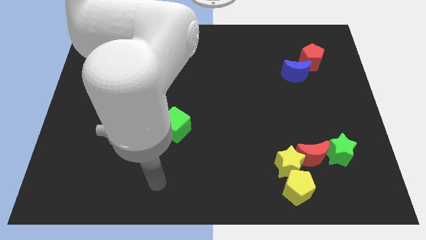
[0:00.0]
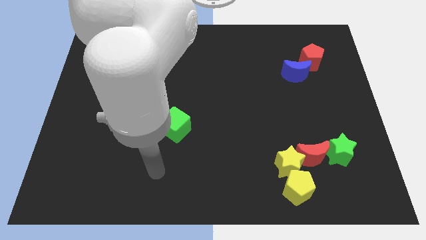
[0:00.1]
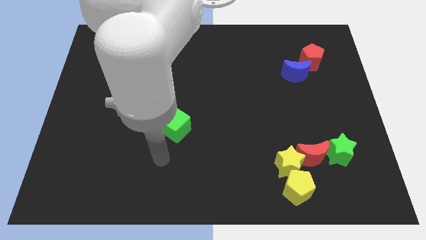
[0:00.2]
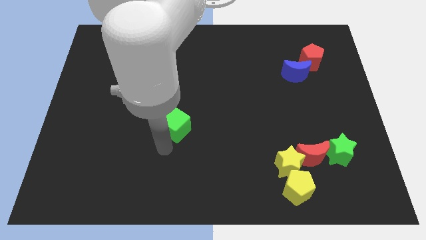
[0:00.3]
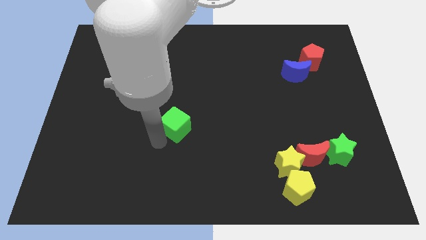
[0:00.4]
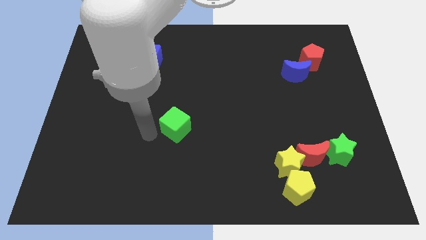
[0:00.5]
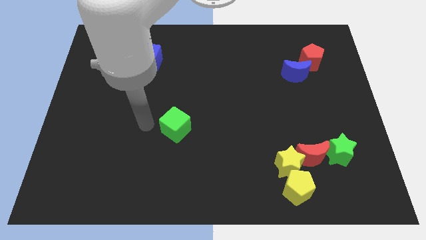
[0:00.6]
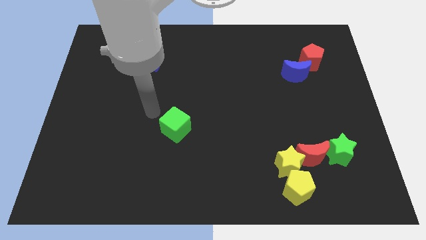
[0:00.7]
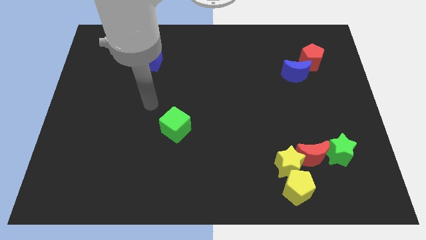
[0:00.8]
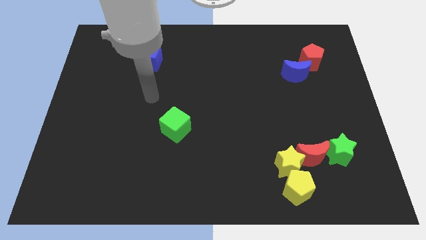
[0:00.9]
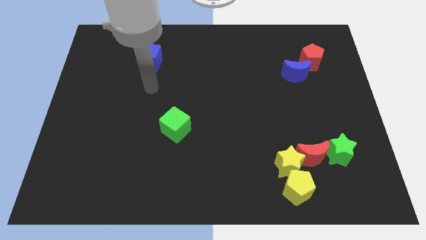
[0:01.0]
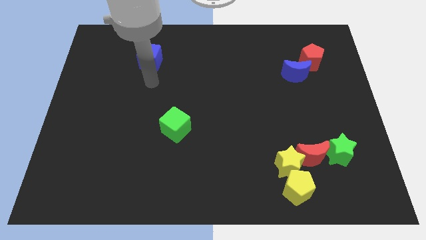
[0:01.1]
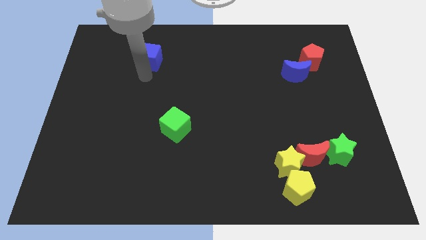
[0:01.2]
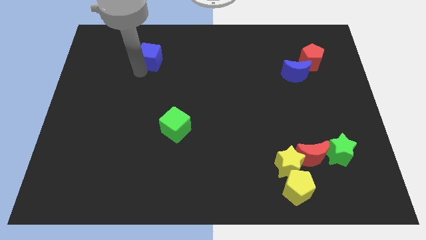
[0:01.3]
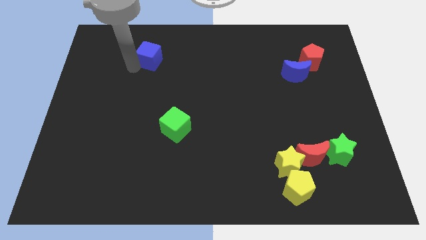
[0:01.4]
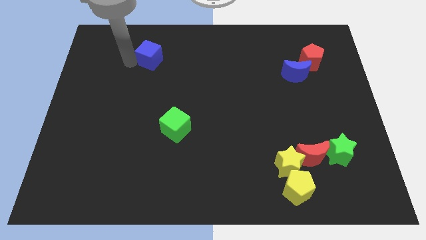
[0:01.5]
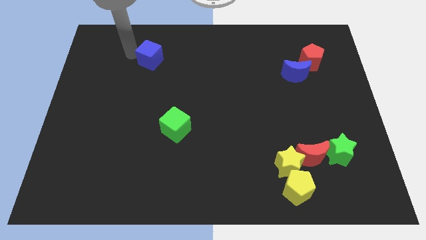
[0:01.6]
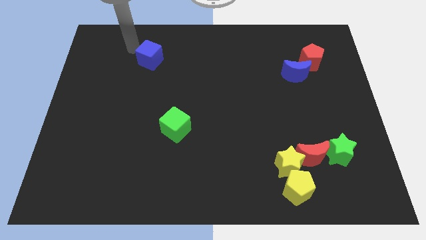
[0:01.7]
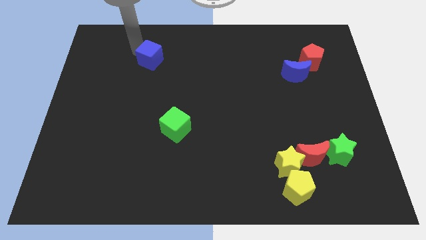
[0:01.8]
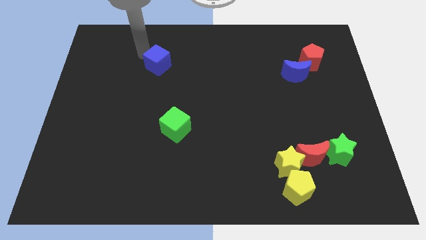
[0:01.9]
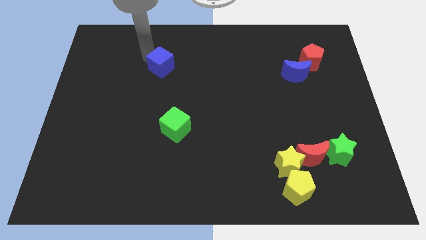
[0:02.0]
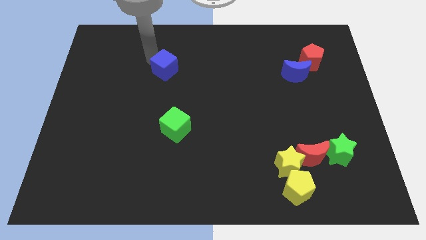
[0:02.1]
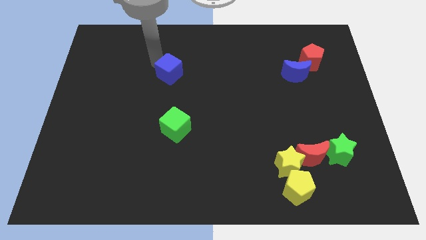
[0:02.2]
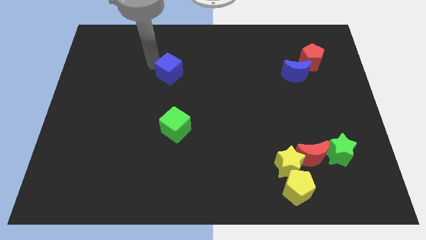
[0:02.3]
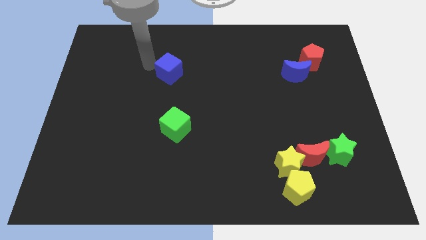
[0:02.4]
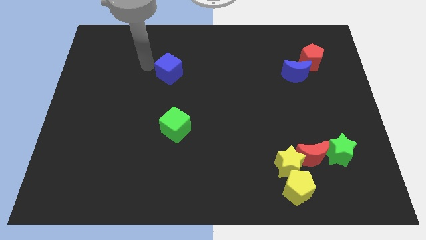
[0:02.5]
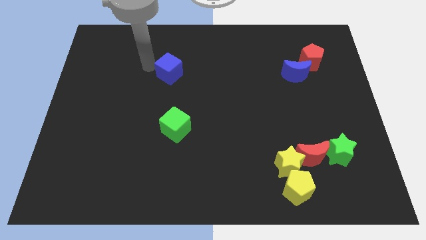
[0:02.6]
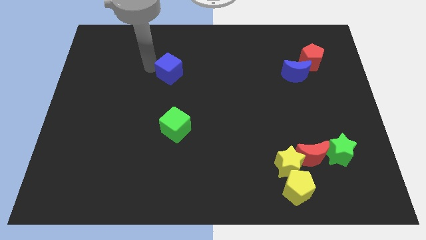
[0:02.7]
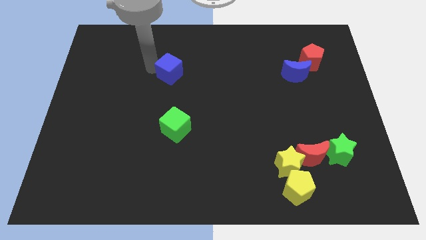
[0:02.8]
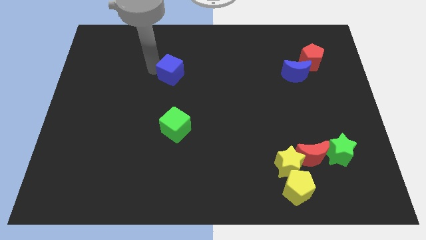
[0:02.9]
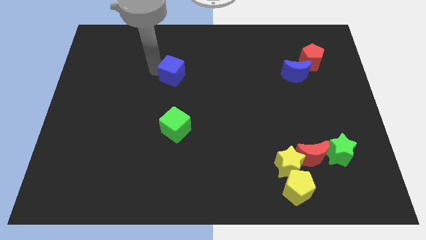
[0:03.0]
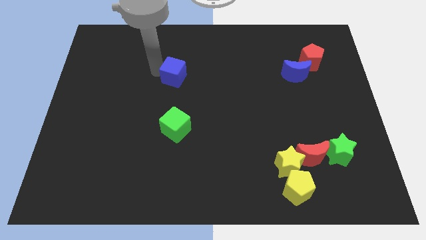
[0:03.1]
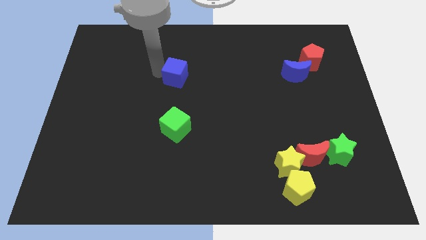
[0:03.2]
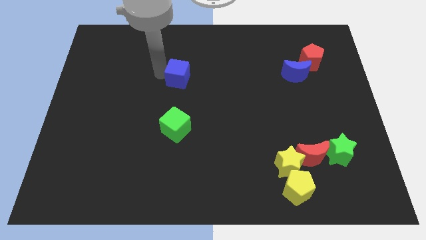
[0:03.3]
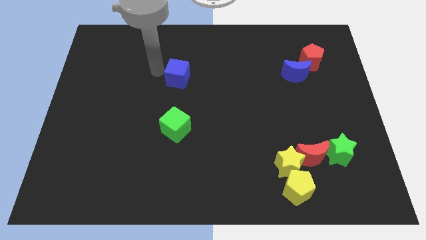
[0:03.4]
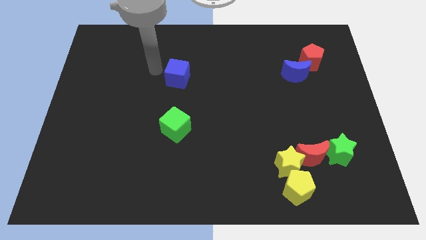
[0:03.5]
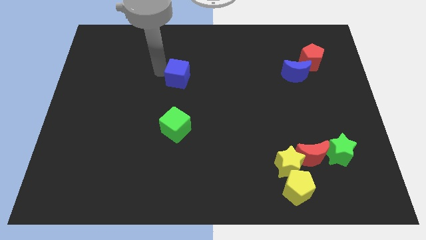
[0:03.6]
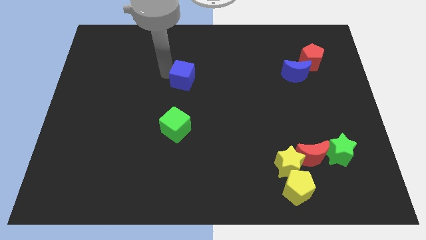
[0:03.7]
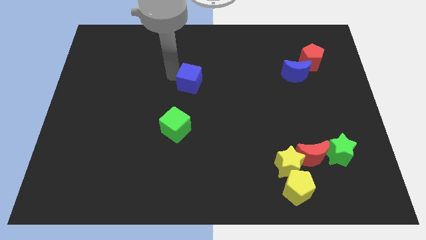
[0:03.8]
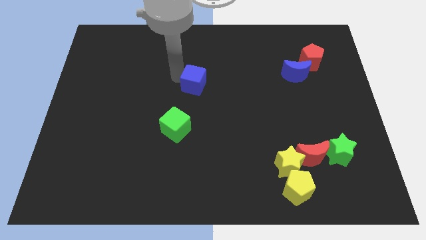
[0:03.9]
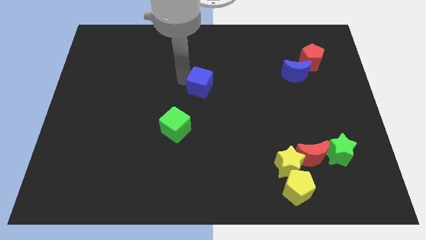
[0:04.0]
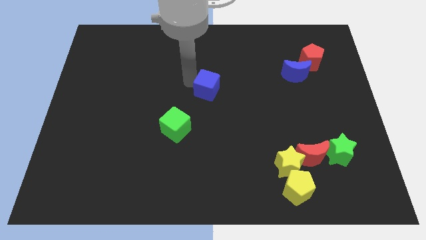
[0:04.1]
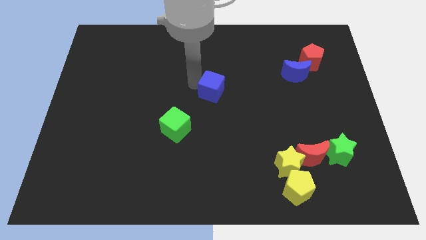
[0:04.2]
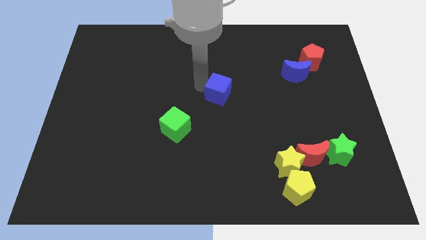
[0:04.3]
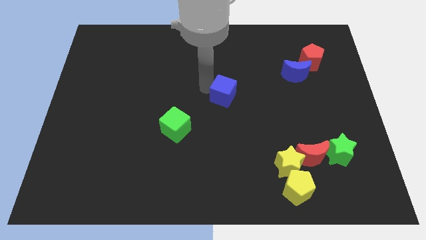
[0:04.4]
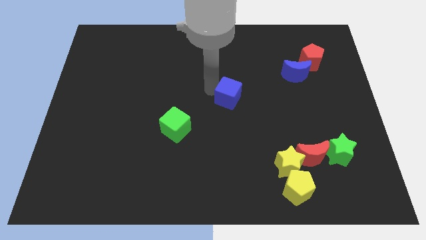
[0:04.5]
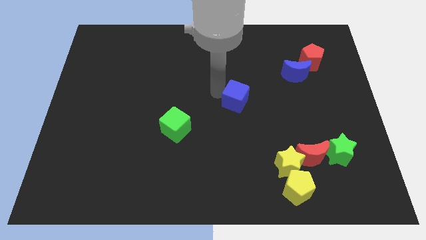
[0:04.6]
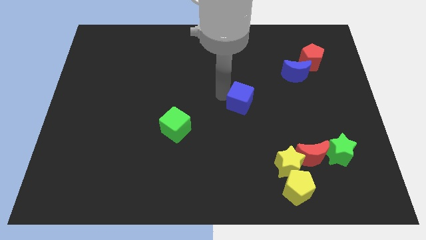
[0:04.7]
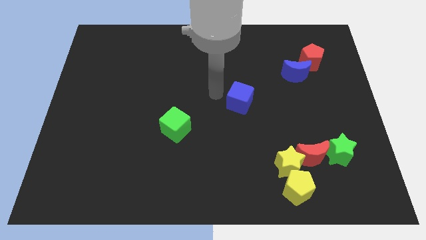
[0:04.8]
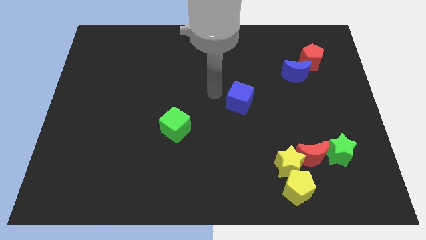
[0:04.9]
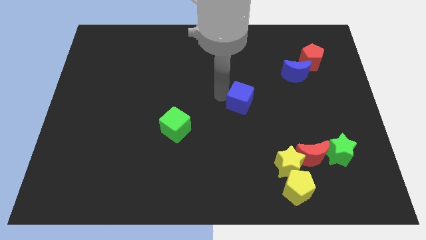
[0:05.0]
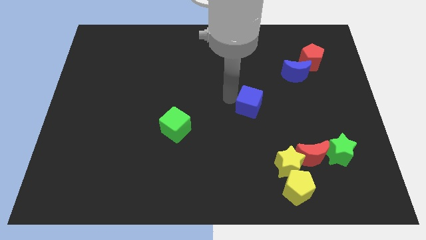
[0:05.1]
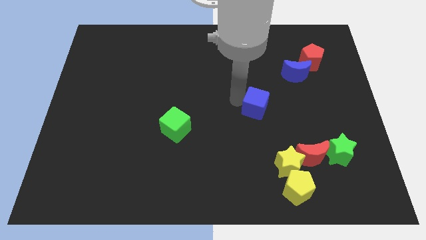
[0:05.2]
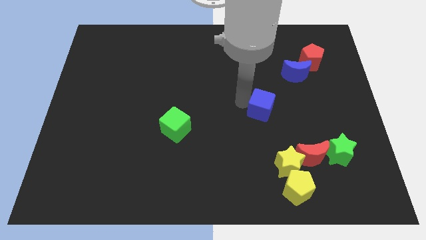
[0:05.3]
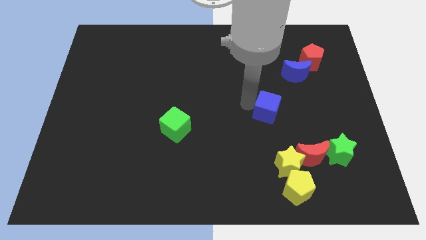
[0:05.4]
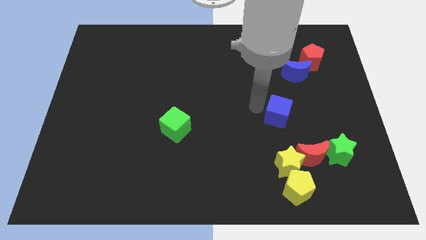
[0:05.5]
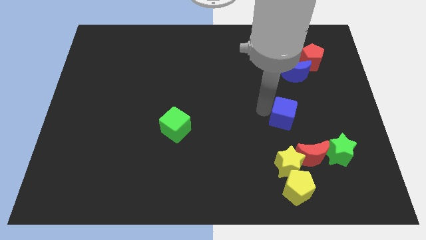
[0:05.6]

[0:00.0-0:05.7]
move the blue cube to the top side of the red moon

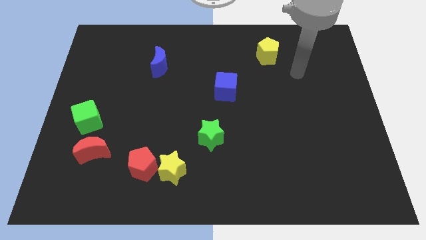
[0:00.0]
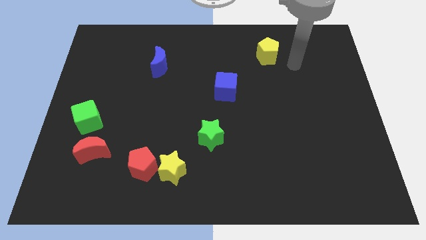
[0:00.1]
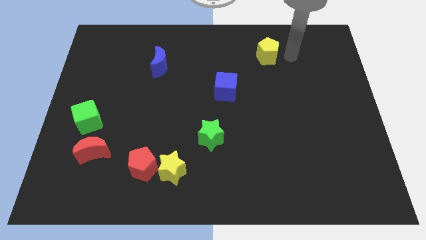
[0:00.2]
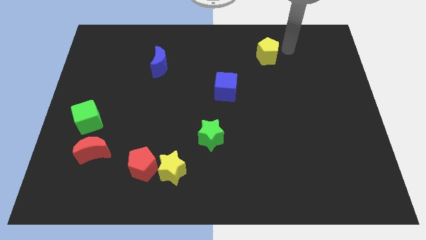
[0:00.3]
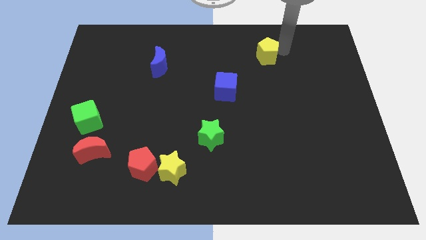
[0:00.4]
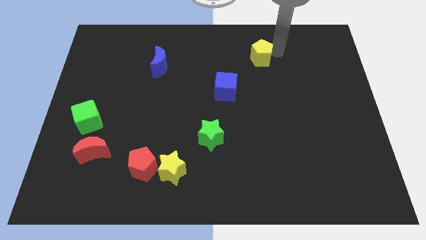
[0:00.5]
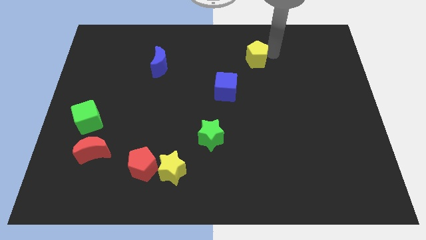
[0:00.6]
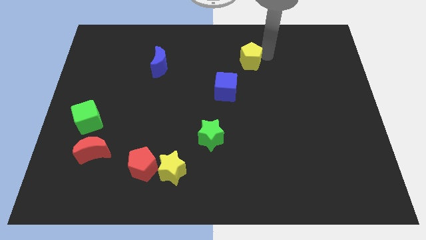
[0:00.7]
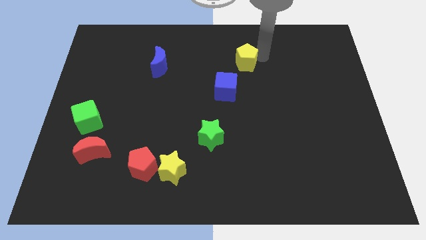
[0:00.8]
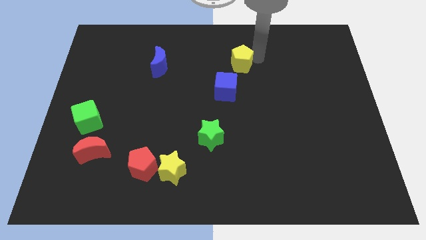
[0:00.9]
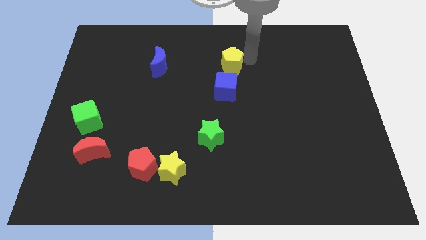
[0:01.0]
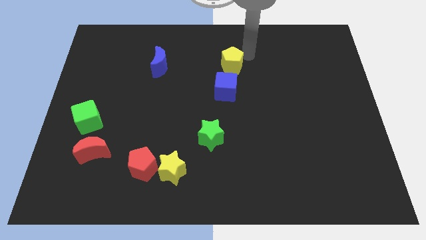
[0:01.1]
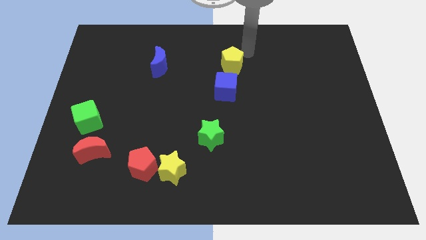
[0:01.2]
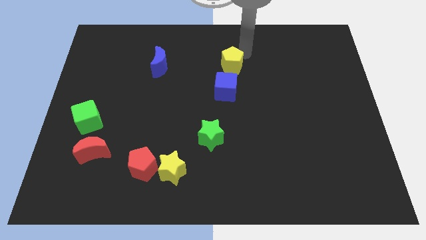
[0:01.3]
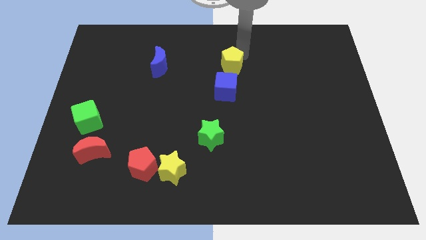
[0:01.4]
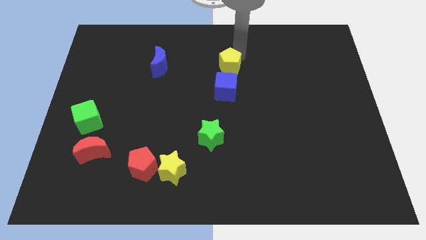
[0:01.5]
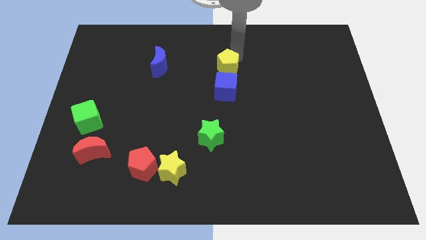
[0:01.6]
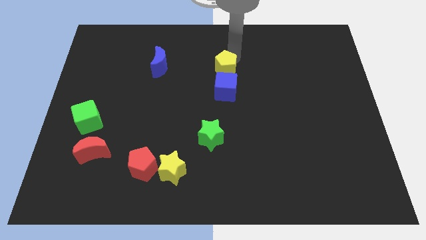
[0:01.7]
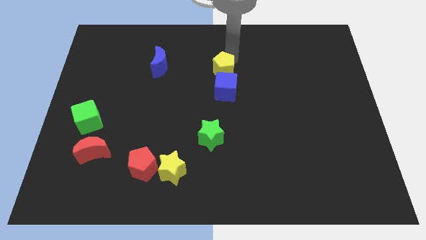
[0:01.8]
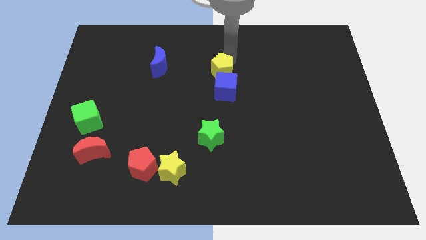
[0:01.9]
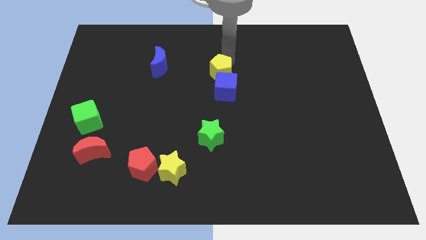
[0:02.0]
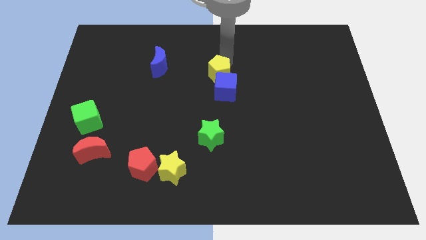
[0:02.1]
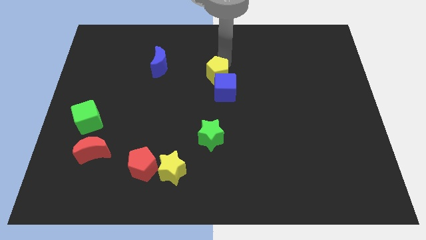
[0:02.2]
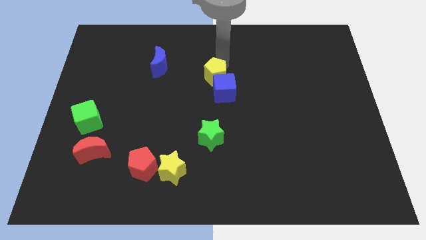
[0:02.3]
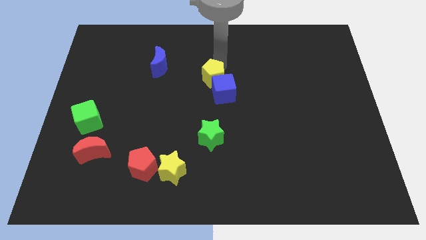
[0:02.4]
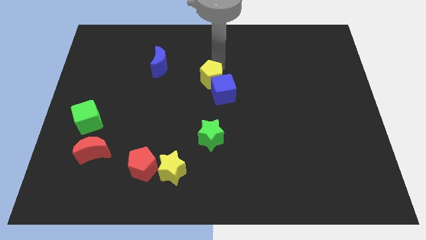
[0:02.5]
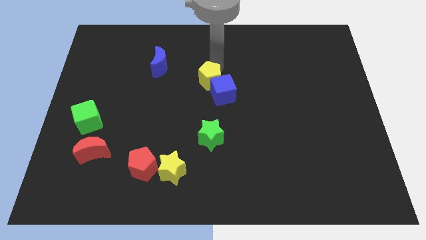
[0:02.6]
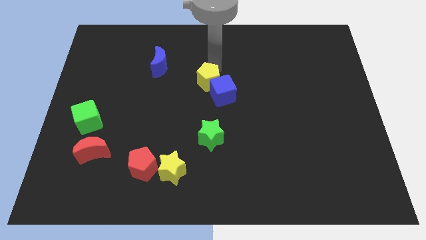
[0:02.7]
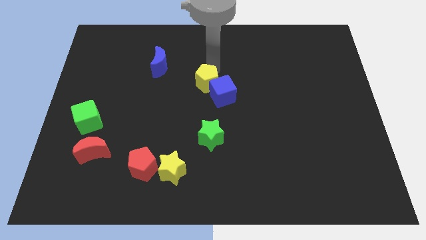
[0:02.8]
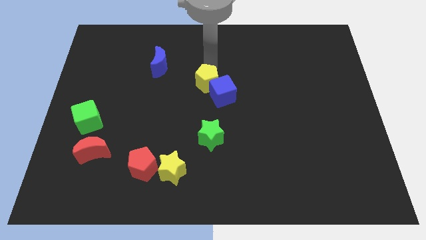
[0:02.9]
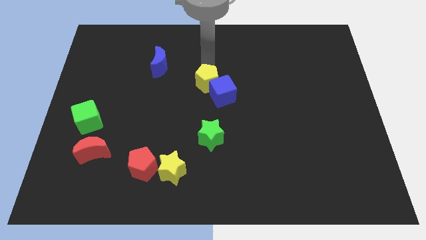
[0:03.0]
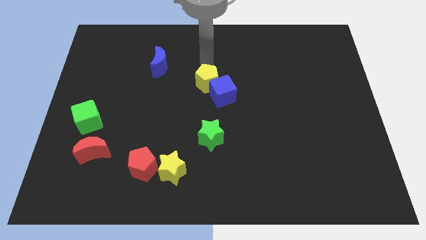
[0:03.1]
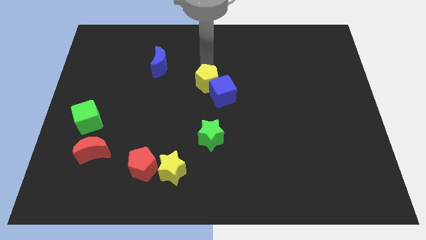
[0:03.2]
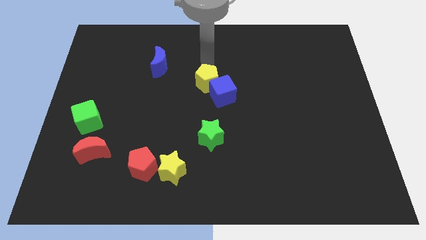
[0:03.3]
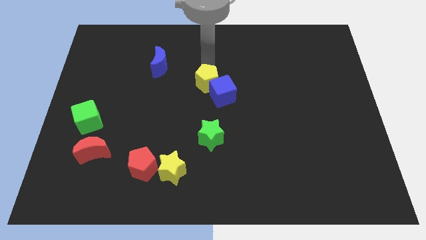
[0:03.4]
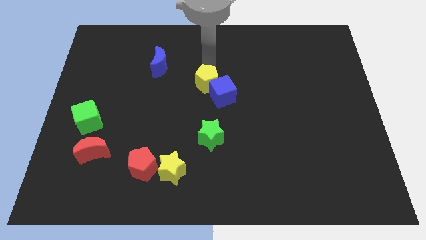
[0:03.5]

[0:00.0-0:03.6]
put the yellow pentagon to the top side of the green star
